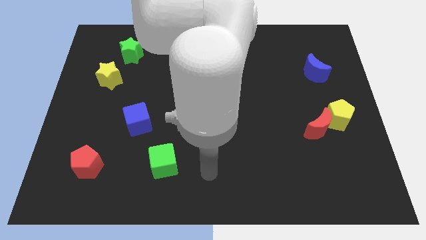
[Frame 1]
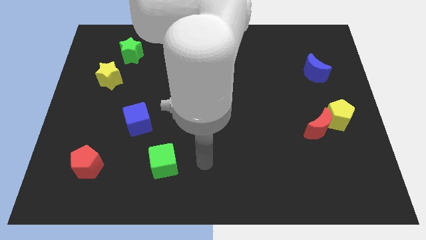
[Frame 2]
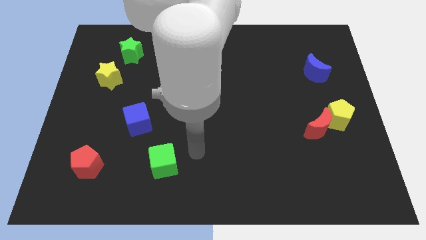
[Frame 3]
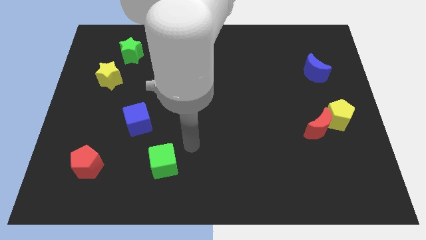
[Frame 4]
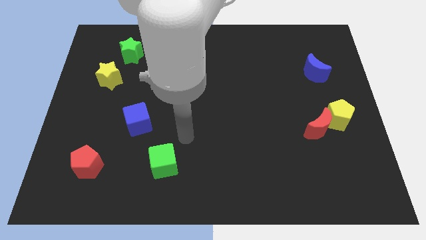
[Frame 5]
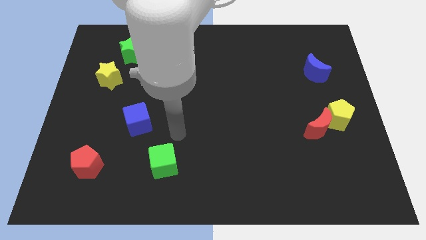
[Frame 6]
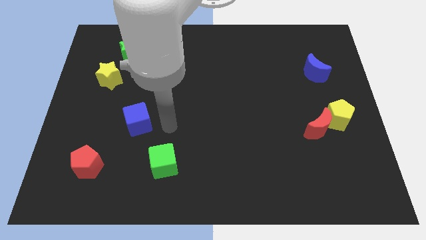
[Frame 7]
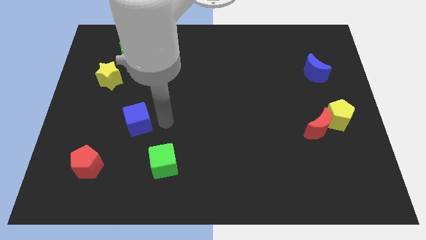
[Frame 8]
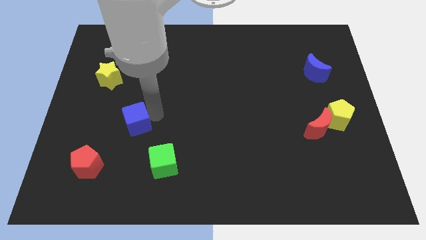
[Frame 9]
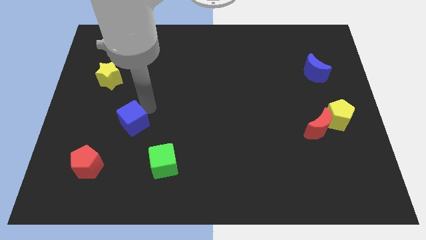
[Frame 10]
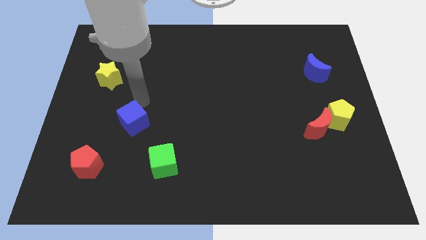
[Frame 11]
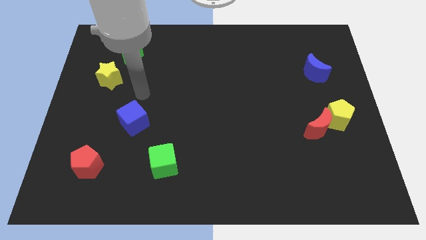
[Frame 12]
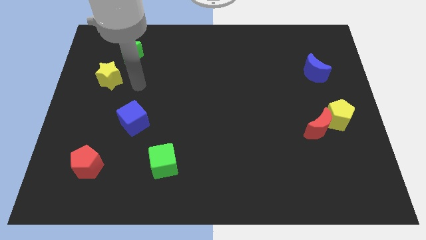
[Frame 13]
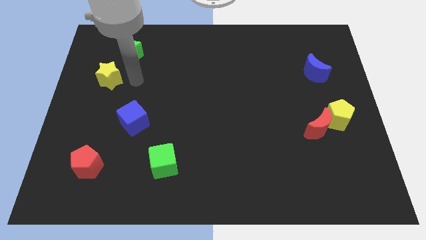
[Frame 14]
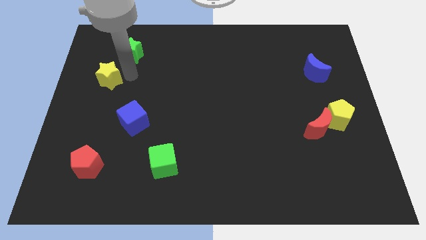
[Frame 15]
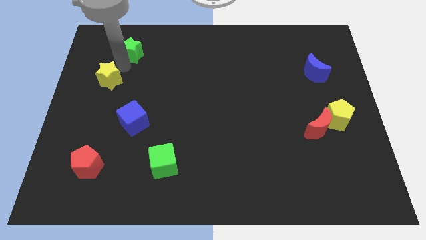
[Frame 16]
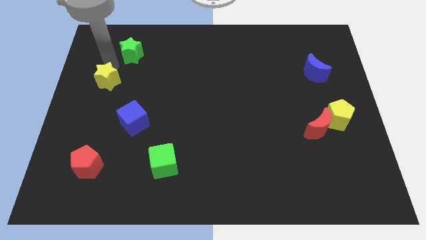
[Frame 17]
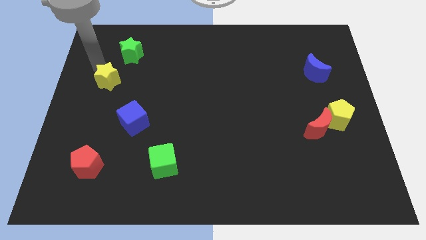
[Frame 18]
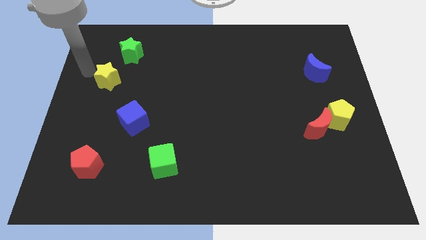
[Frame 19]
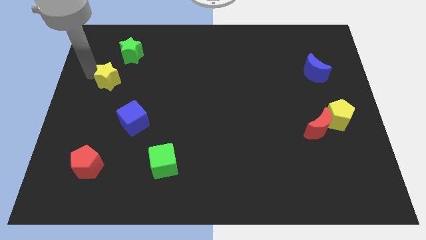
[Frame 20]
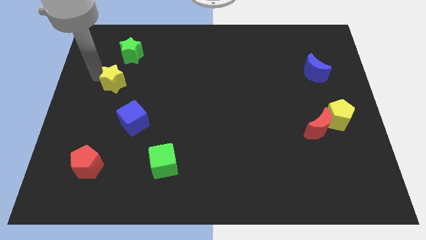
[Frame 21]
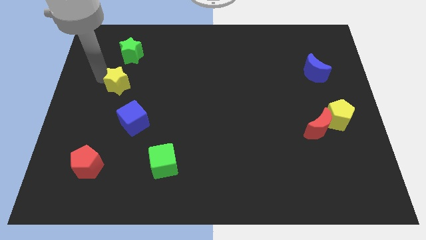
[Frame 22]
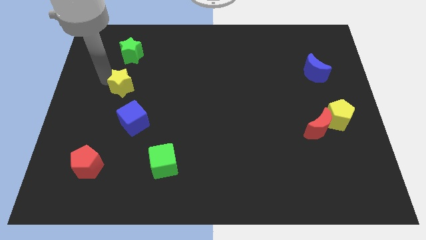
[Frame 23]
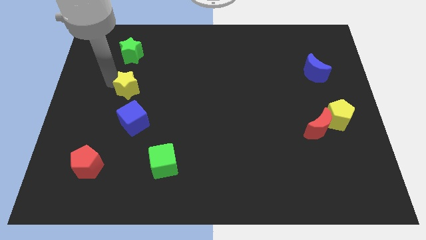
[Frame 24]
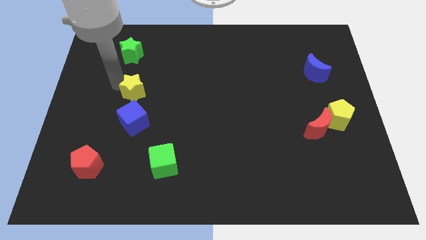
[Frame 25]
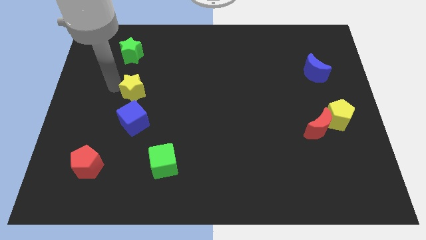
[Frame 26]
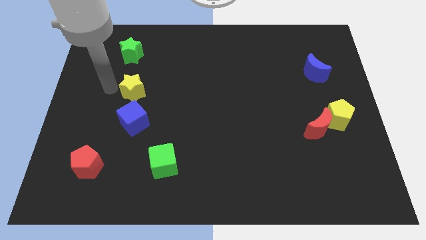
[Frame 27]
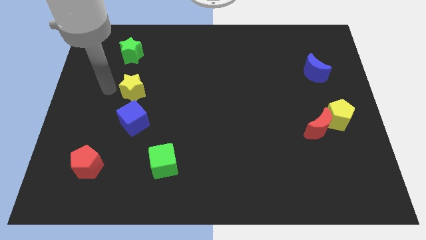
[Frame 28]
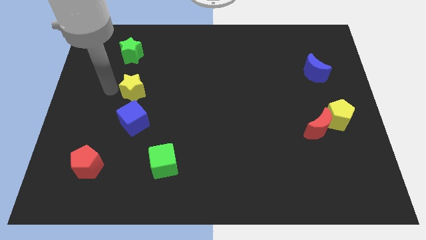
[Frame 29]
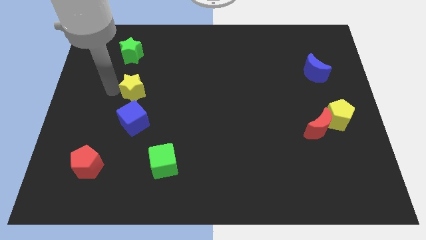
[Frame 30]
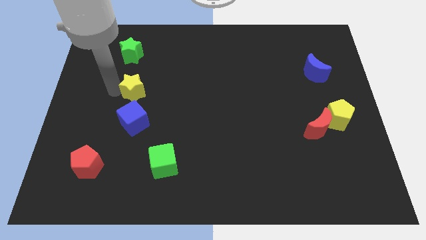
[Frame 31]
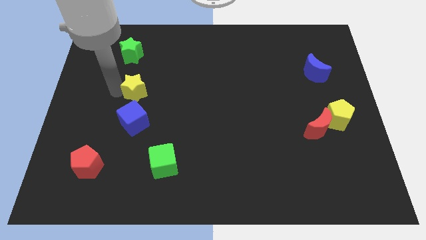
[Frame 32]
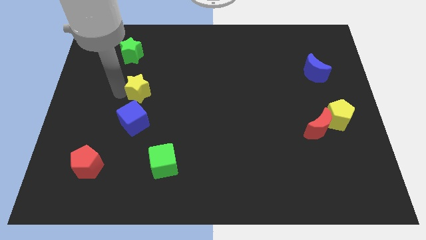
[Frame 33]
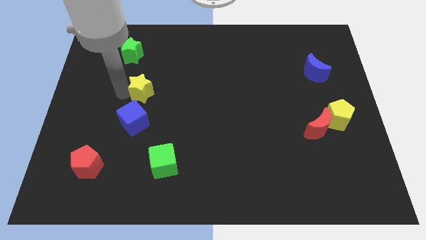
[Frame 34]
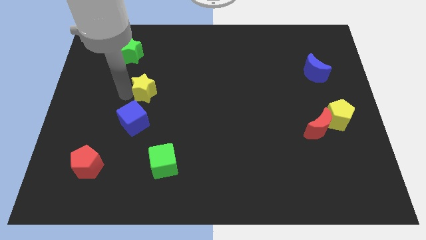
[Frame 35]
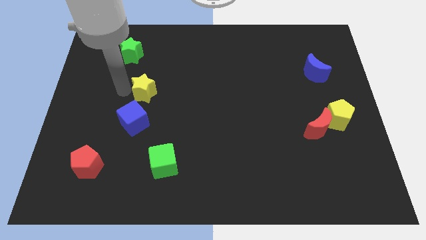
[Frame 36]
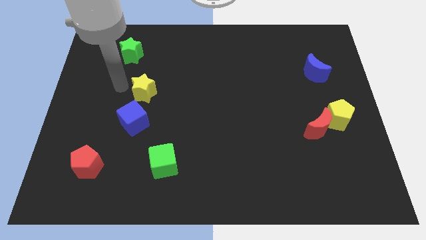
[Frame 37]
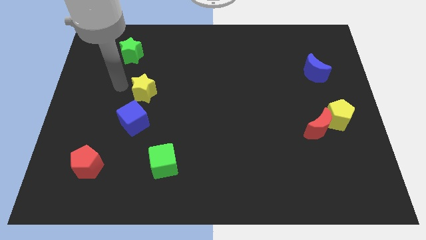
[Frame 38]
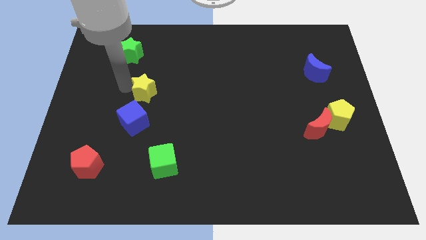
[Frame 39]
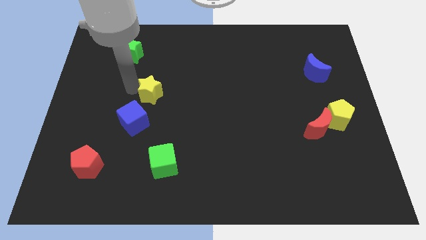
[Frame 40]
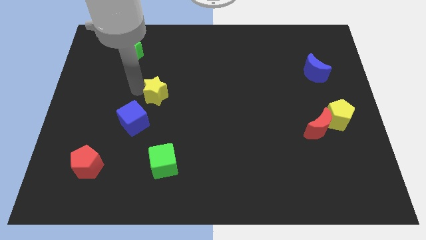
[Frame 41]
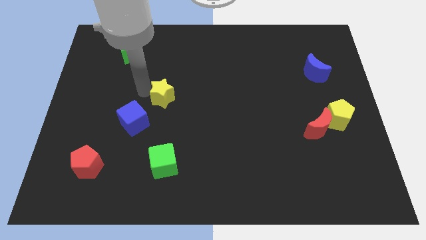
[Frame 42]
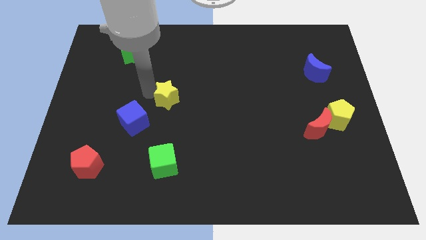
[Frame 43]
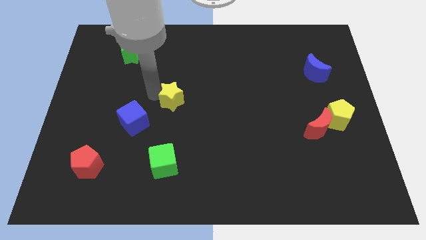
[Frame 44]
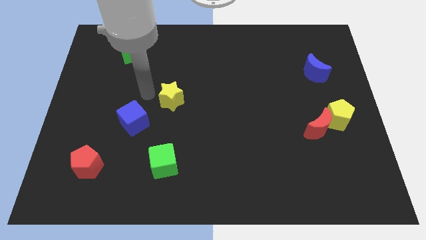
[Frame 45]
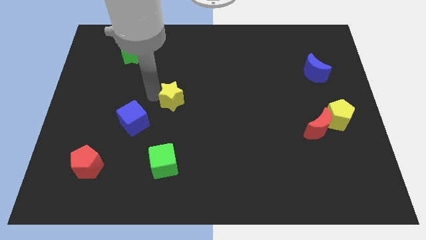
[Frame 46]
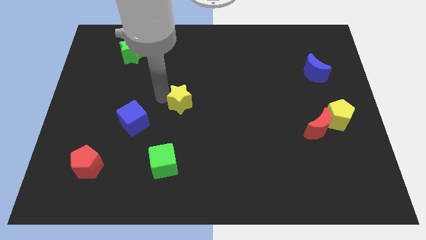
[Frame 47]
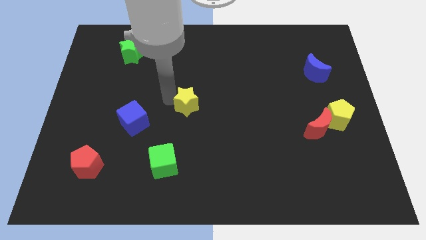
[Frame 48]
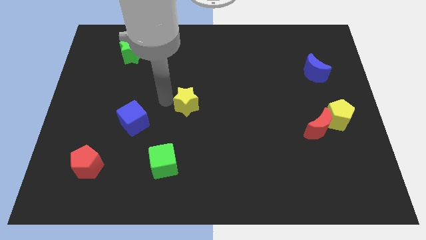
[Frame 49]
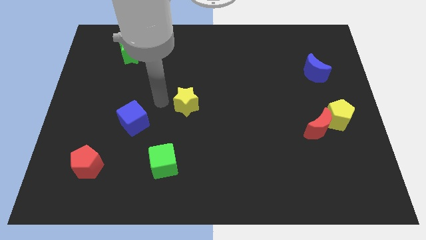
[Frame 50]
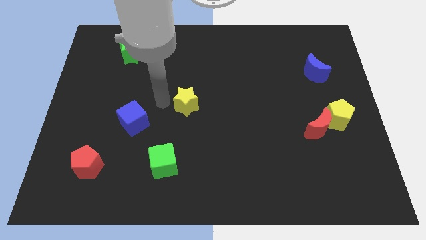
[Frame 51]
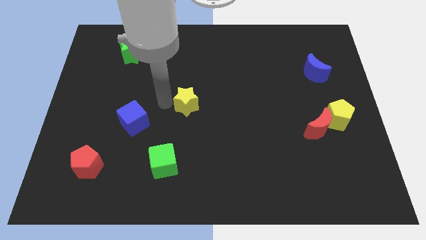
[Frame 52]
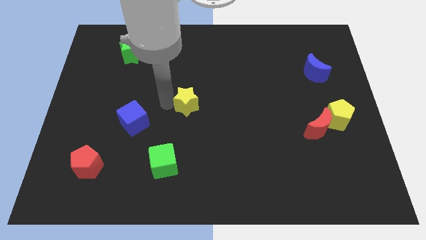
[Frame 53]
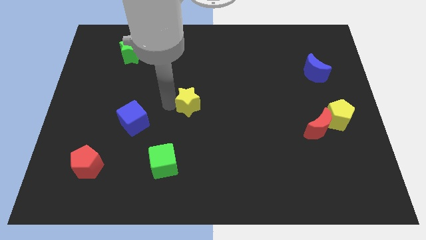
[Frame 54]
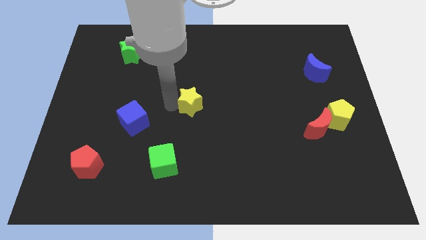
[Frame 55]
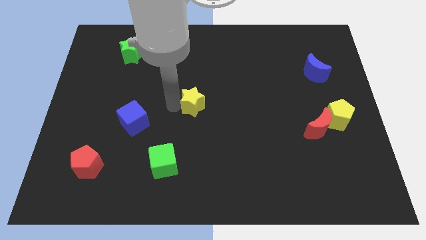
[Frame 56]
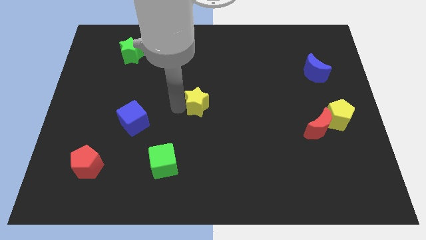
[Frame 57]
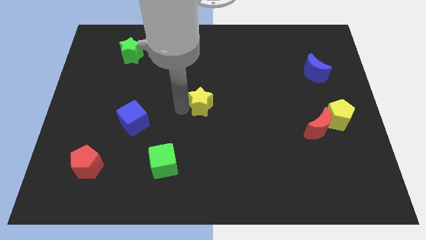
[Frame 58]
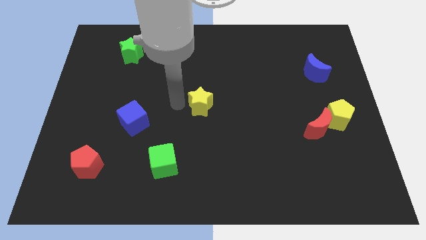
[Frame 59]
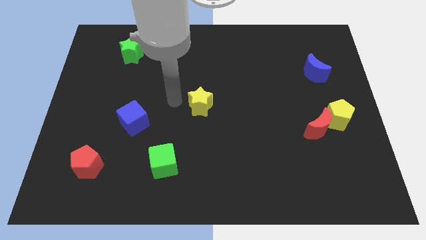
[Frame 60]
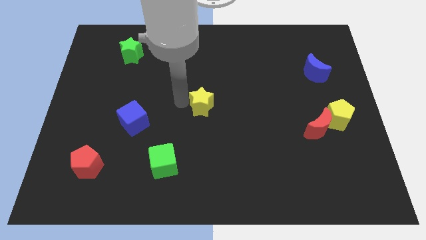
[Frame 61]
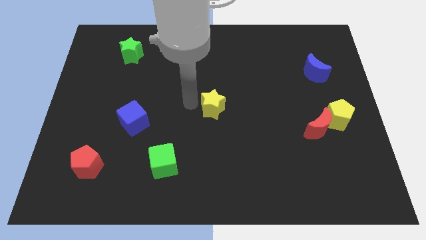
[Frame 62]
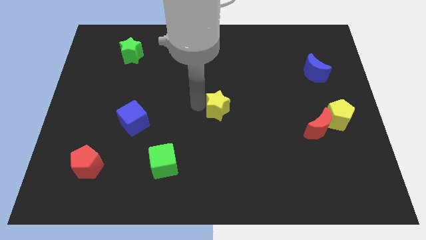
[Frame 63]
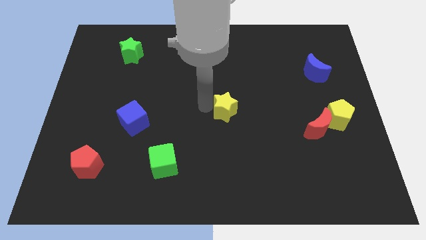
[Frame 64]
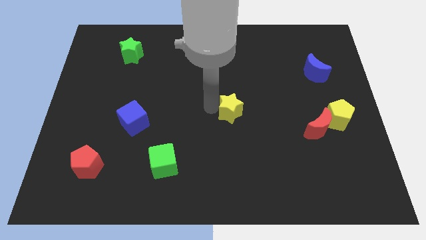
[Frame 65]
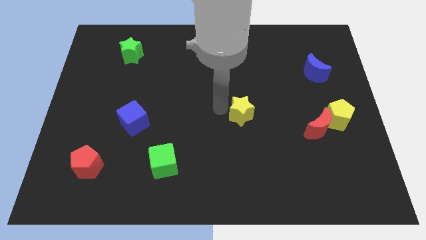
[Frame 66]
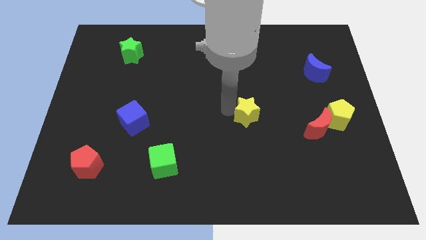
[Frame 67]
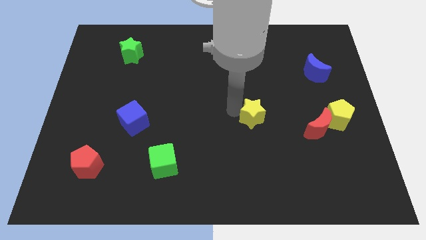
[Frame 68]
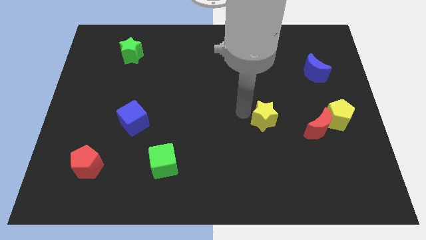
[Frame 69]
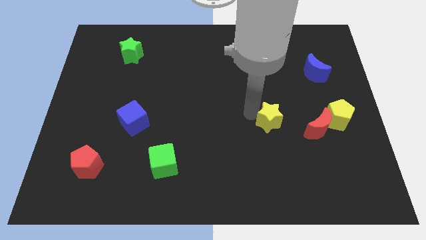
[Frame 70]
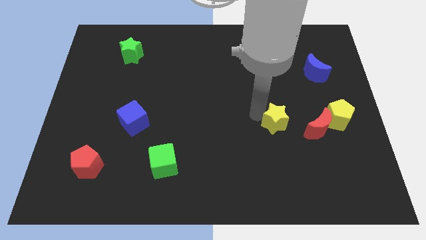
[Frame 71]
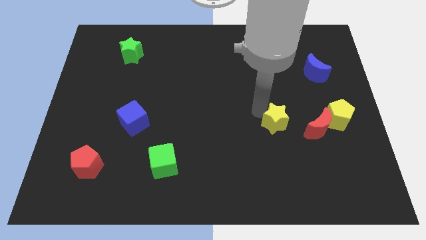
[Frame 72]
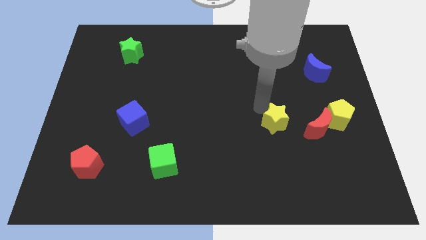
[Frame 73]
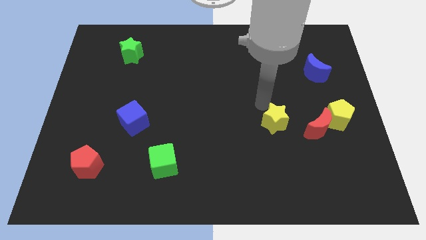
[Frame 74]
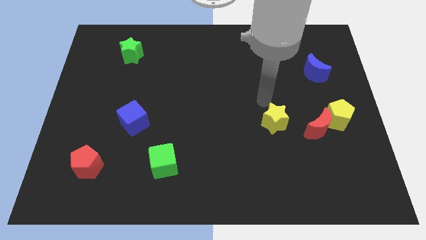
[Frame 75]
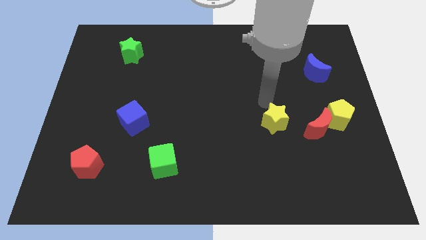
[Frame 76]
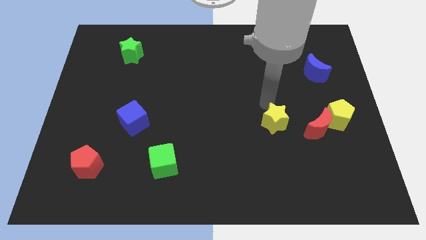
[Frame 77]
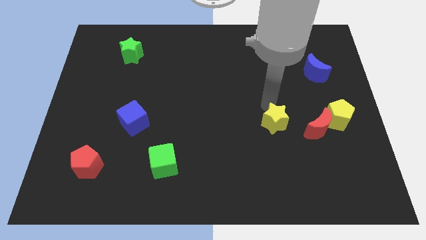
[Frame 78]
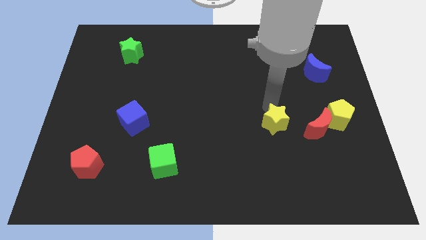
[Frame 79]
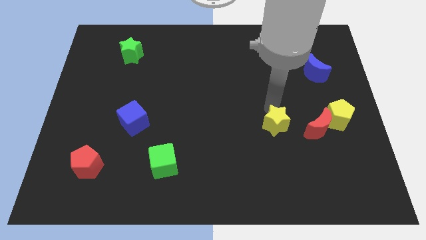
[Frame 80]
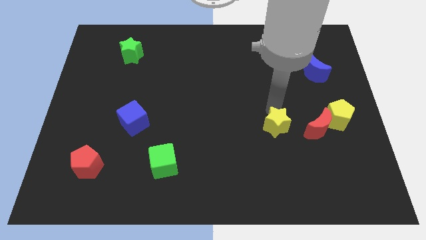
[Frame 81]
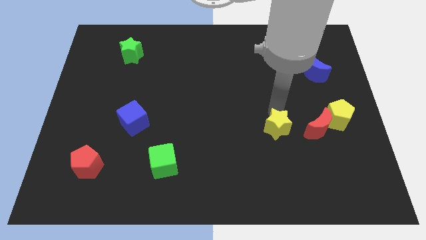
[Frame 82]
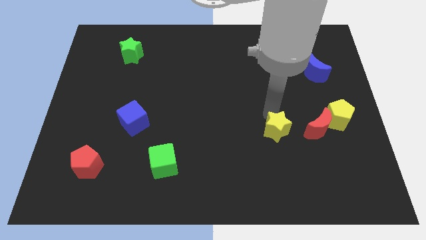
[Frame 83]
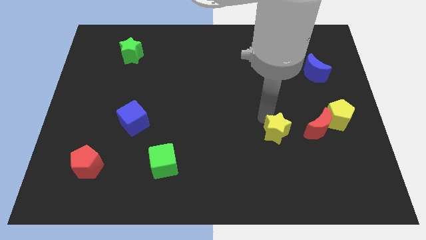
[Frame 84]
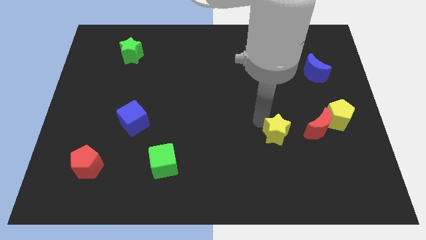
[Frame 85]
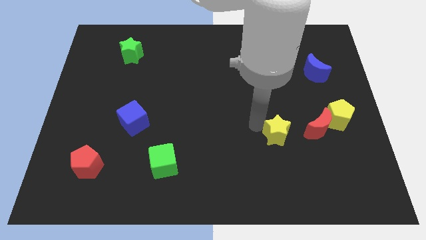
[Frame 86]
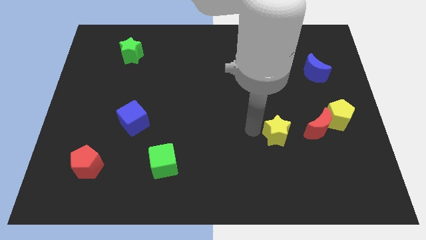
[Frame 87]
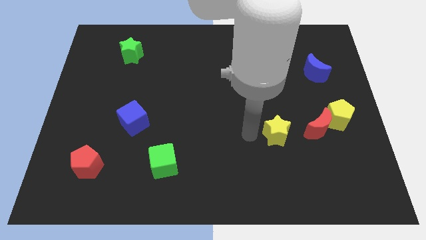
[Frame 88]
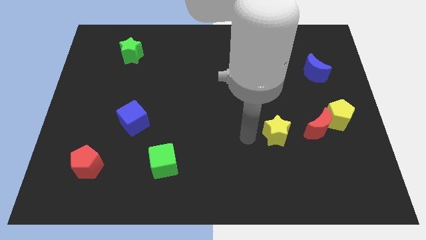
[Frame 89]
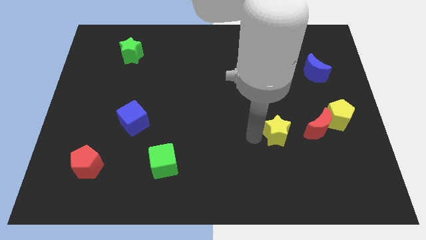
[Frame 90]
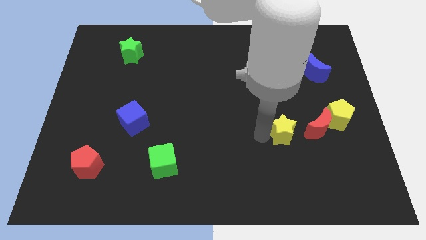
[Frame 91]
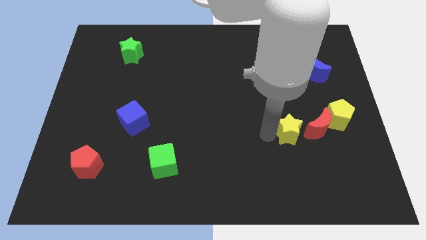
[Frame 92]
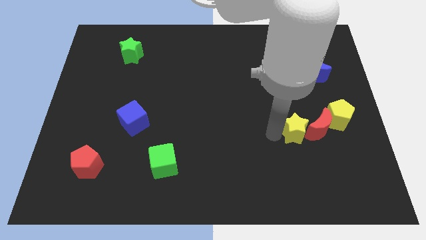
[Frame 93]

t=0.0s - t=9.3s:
move the yellow star next to the red moon
